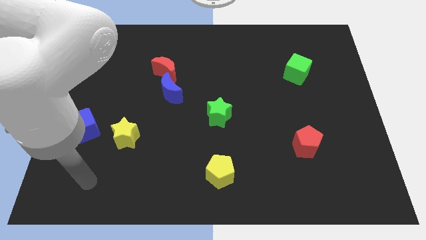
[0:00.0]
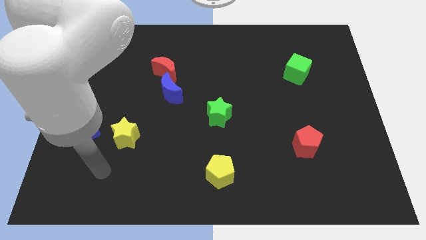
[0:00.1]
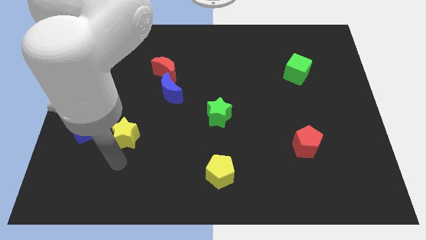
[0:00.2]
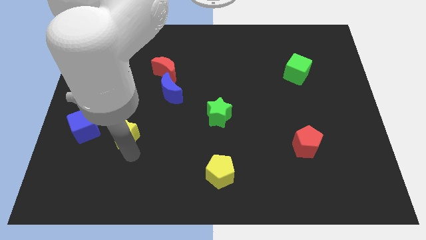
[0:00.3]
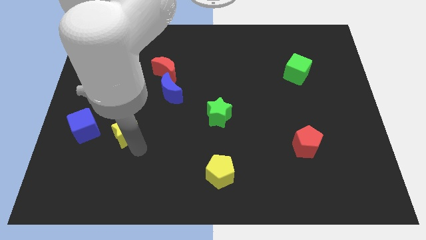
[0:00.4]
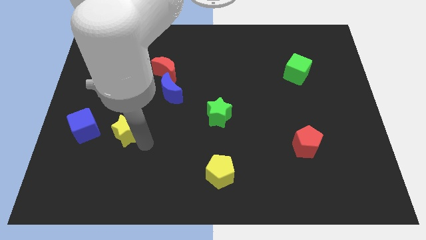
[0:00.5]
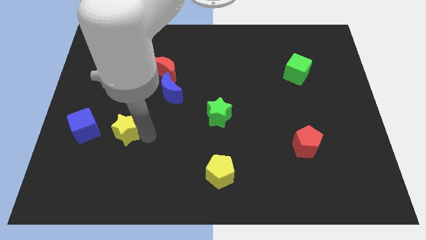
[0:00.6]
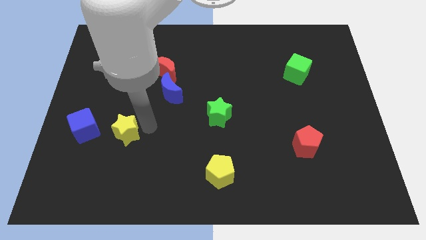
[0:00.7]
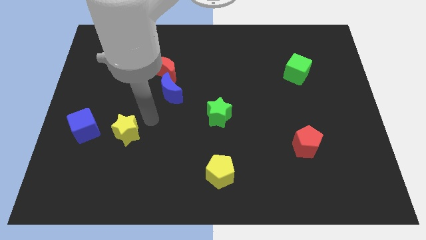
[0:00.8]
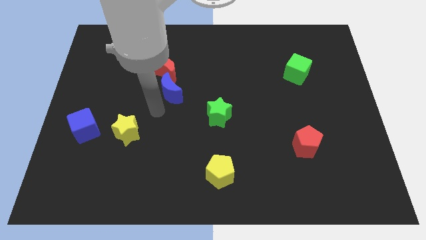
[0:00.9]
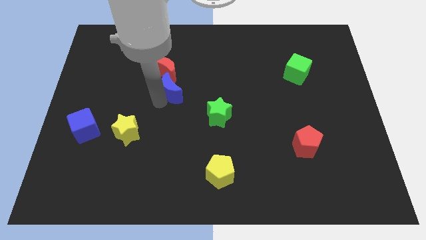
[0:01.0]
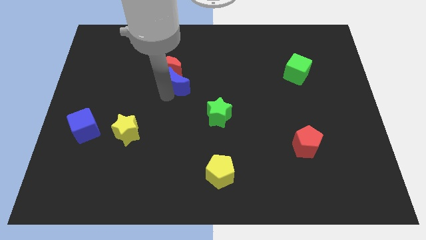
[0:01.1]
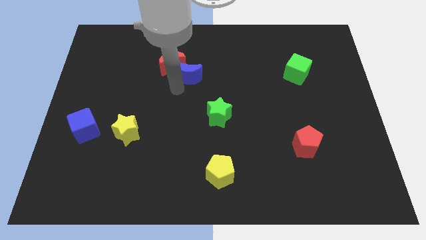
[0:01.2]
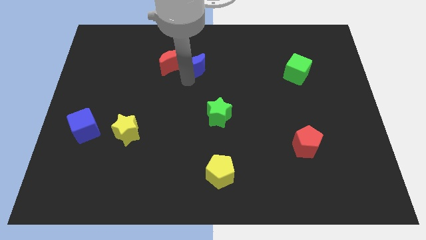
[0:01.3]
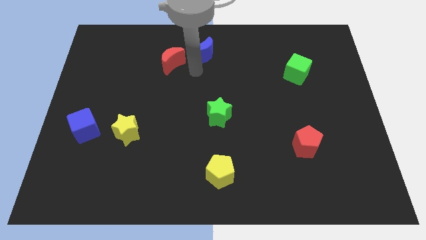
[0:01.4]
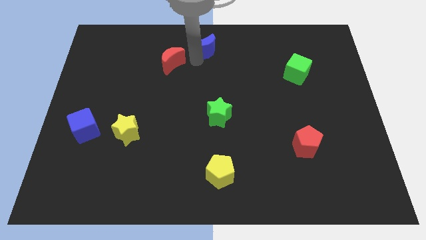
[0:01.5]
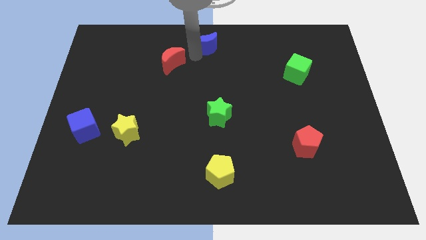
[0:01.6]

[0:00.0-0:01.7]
move the red moon away from the blue moon

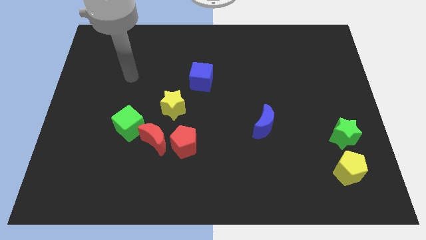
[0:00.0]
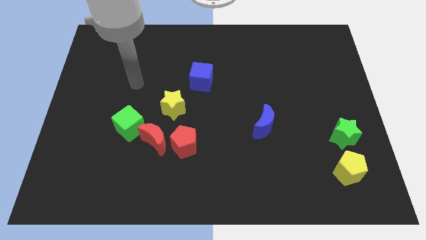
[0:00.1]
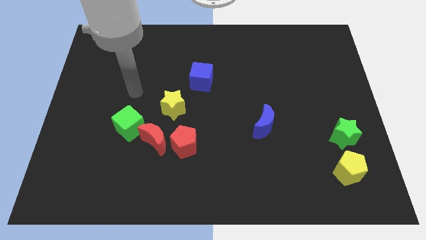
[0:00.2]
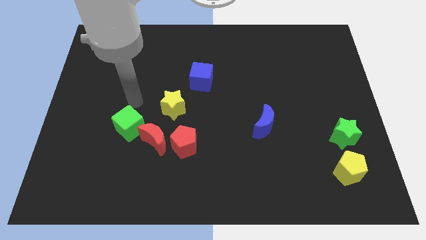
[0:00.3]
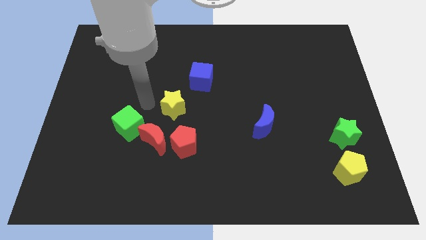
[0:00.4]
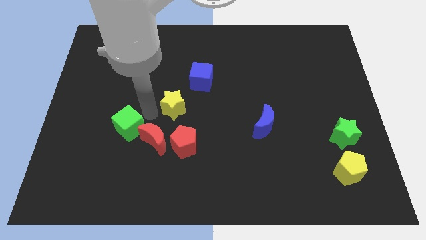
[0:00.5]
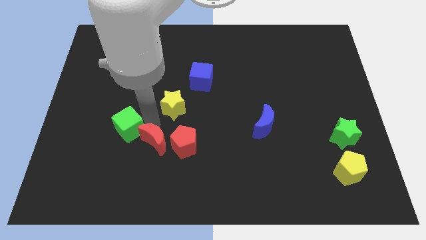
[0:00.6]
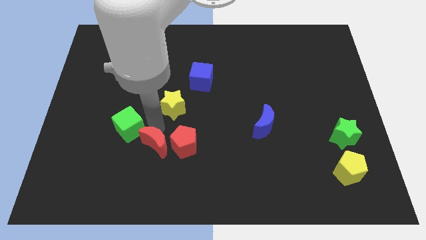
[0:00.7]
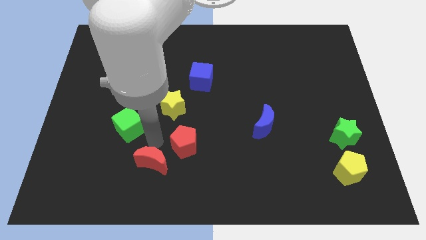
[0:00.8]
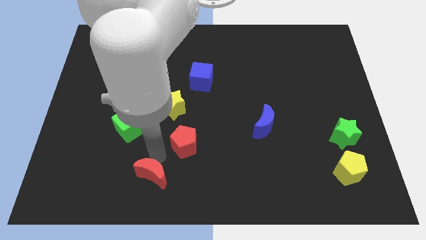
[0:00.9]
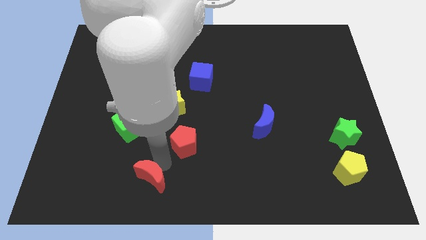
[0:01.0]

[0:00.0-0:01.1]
pull the red pentagon apart from the red moon

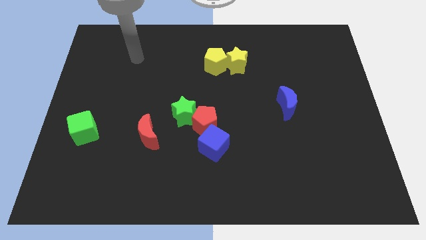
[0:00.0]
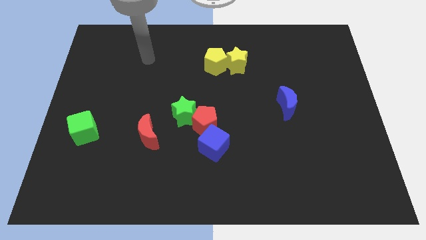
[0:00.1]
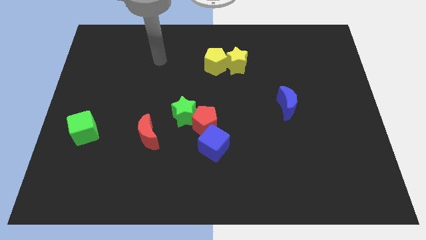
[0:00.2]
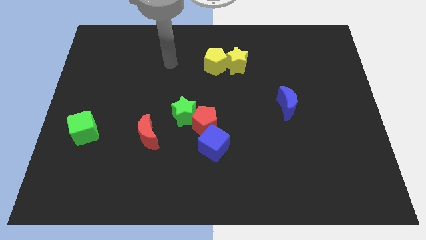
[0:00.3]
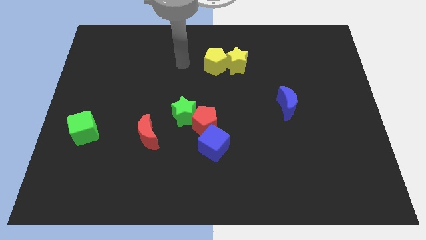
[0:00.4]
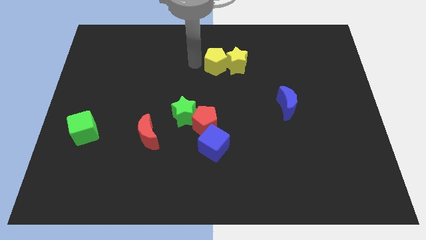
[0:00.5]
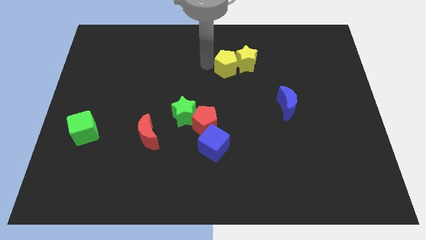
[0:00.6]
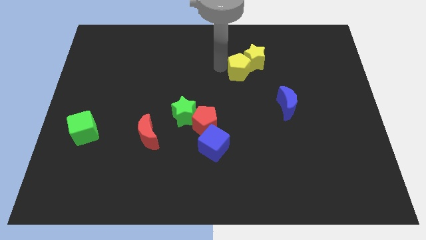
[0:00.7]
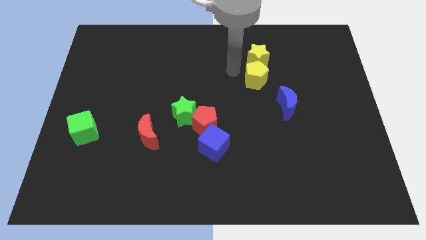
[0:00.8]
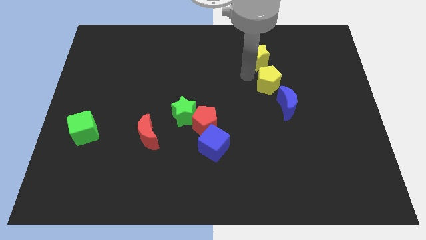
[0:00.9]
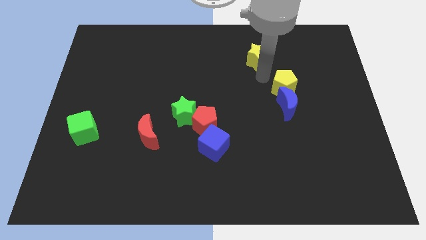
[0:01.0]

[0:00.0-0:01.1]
separate the yellow star from the yellow pentagon

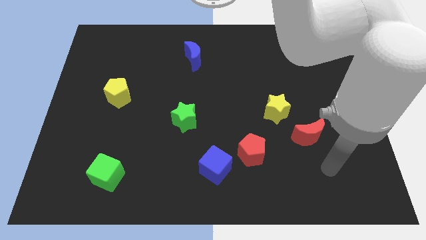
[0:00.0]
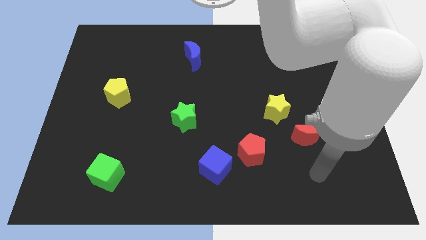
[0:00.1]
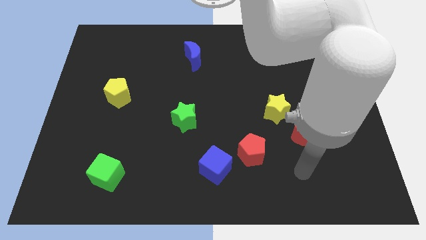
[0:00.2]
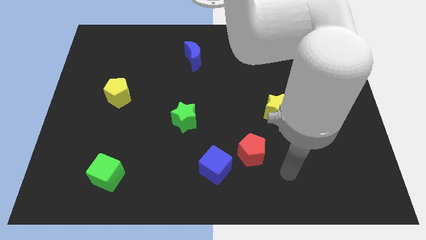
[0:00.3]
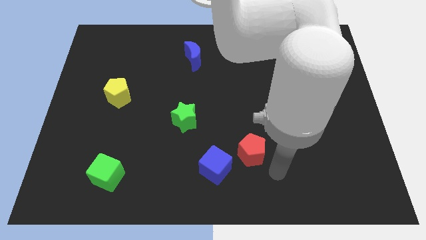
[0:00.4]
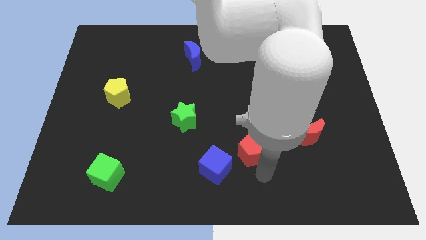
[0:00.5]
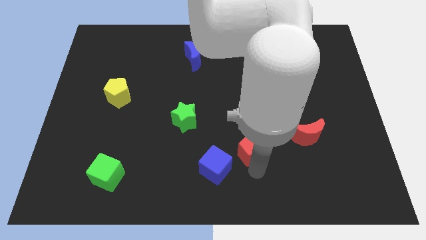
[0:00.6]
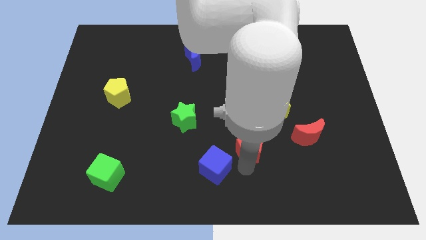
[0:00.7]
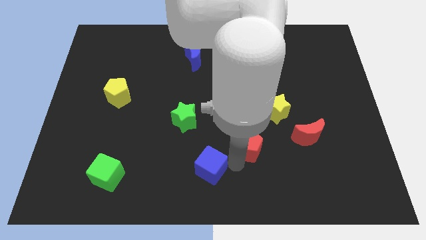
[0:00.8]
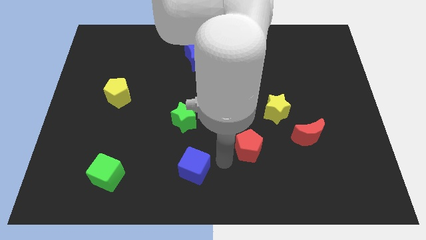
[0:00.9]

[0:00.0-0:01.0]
pull the red pentagon apart from the blue cube

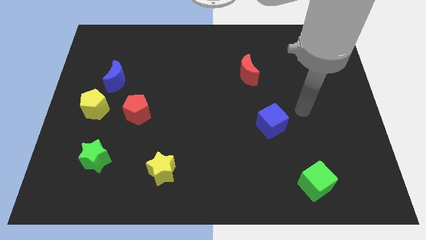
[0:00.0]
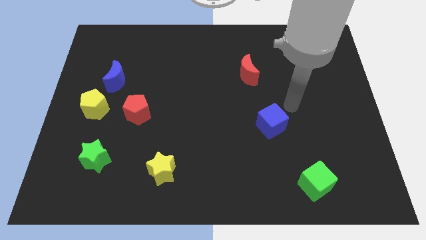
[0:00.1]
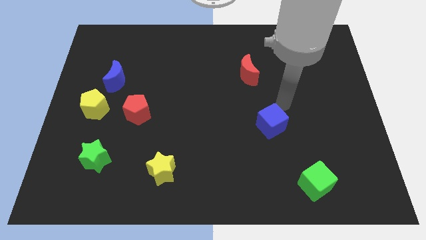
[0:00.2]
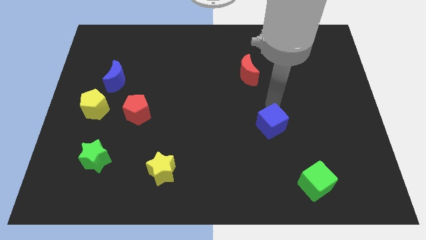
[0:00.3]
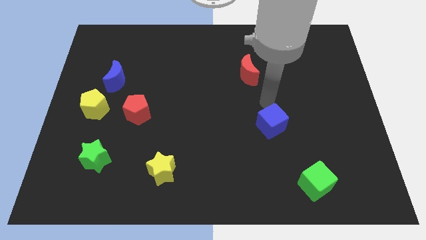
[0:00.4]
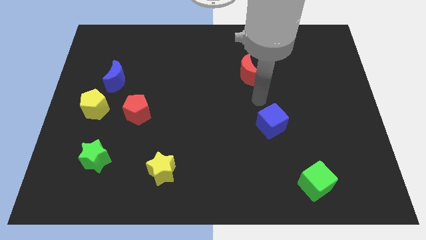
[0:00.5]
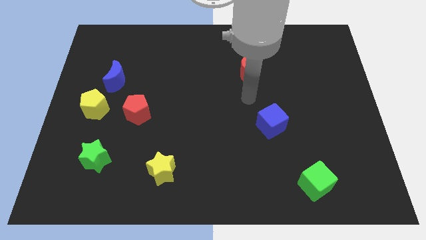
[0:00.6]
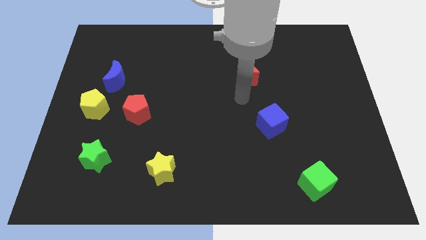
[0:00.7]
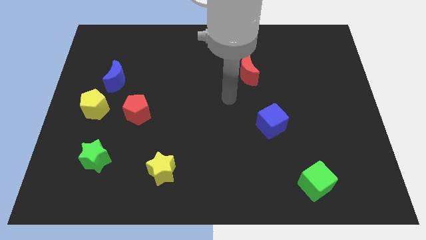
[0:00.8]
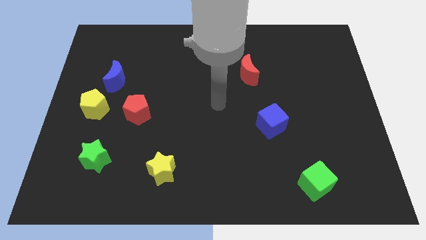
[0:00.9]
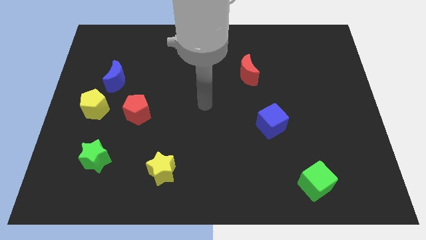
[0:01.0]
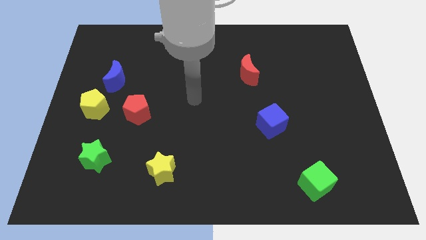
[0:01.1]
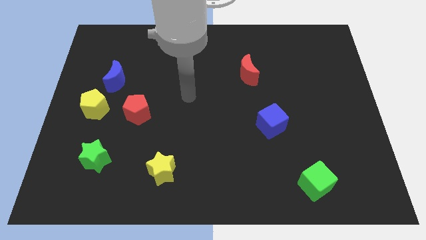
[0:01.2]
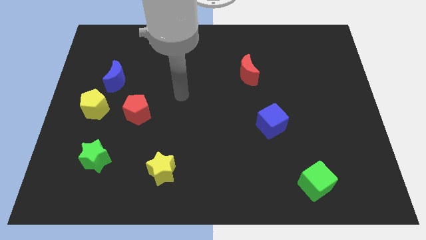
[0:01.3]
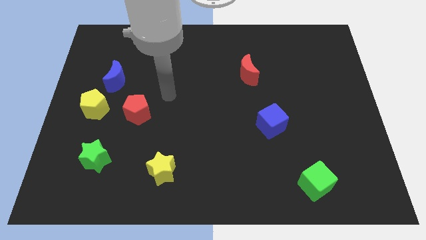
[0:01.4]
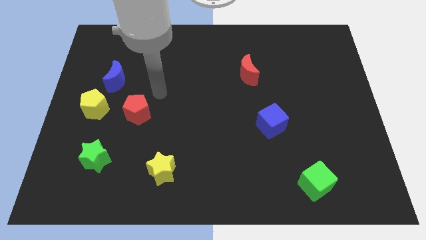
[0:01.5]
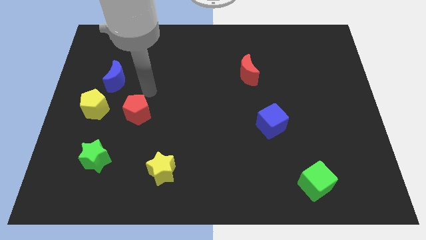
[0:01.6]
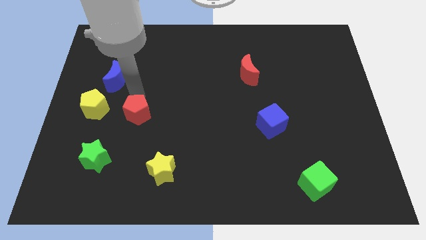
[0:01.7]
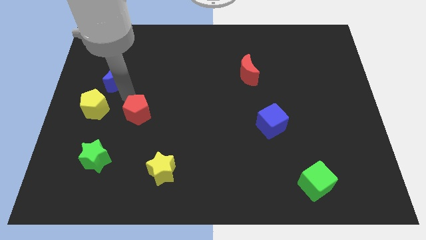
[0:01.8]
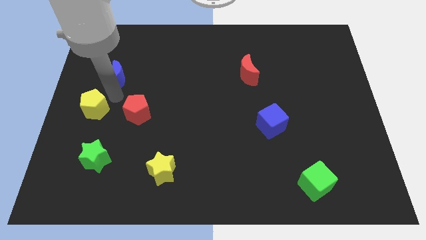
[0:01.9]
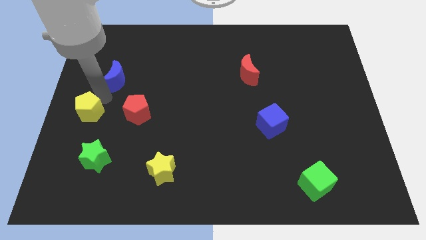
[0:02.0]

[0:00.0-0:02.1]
move the blue moon away from the yellow pentagon

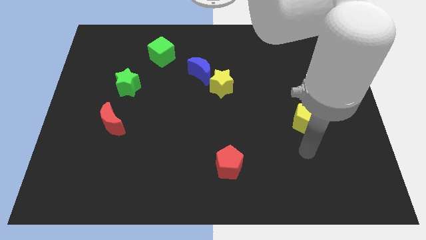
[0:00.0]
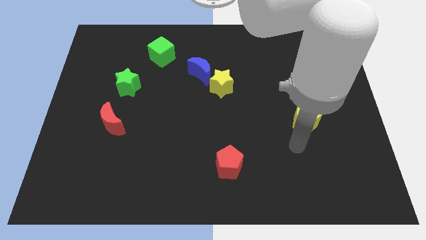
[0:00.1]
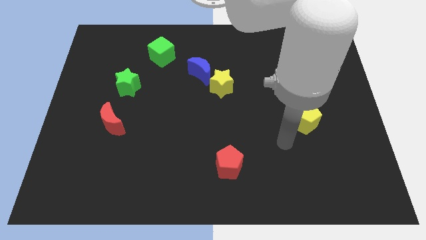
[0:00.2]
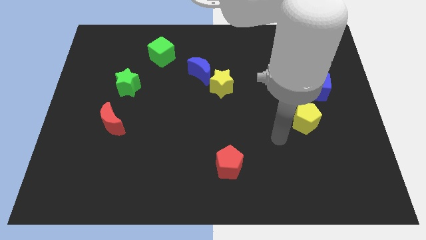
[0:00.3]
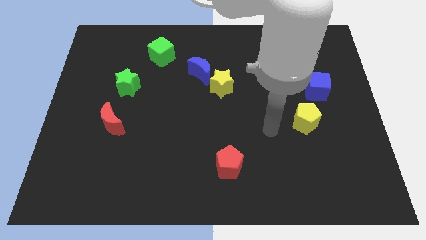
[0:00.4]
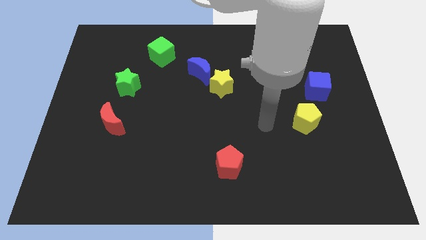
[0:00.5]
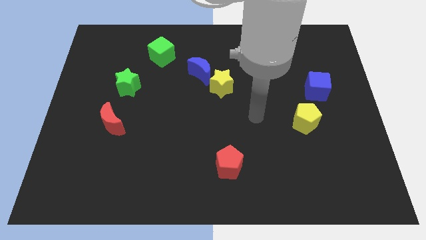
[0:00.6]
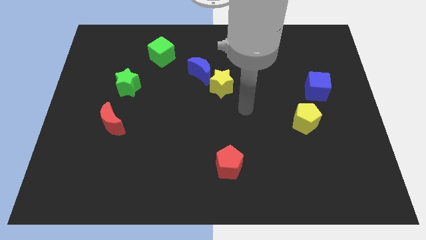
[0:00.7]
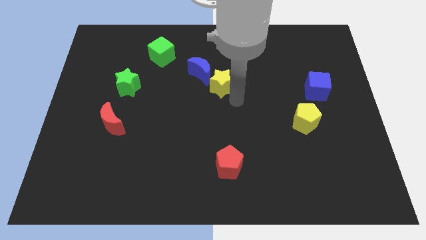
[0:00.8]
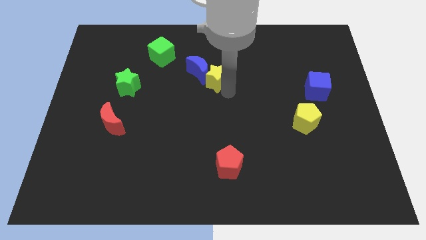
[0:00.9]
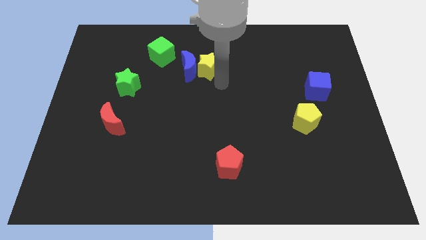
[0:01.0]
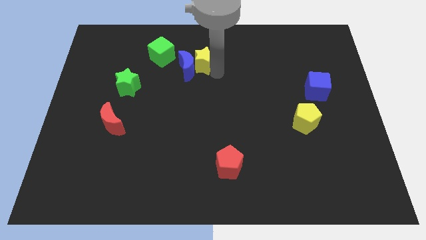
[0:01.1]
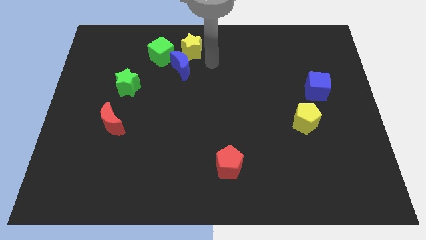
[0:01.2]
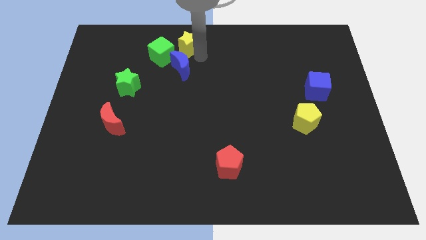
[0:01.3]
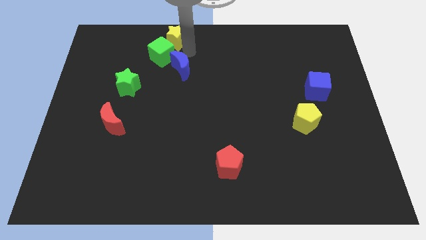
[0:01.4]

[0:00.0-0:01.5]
move the blue moon away from the yellow star

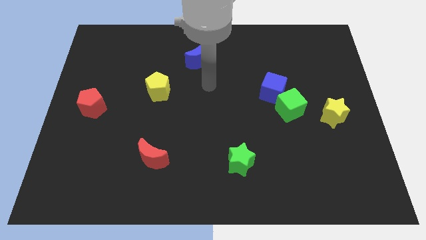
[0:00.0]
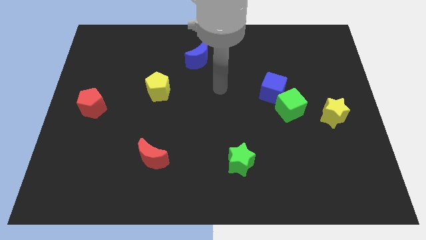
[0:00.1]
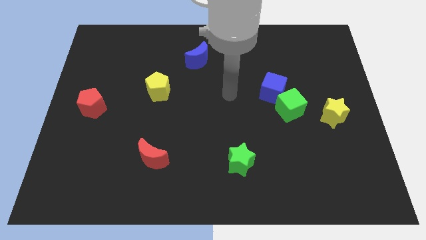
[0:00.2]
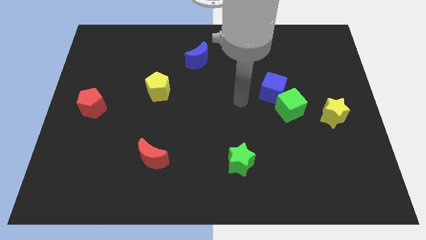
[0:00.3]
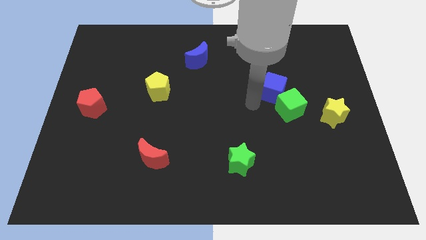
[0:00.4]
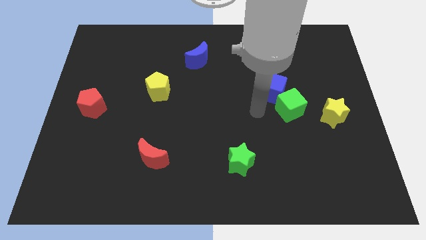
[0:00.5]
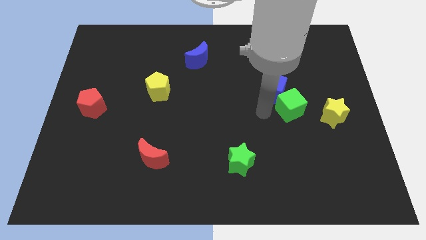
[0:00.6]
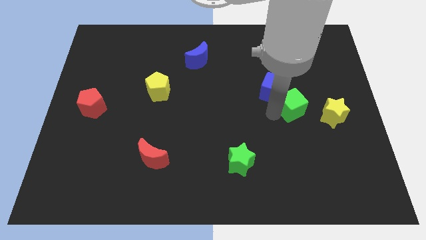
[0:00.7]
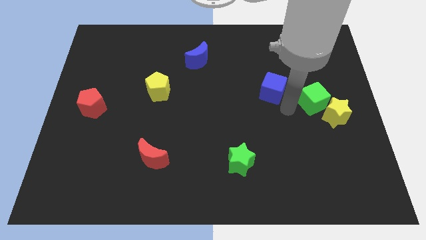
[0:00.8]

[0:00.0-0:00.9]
separate the blue cube from the green cube
